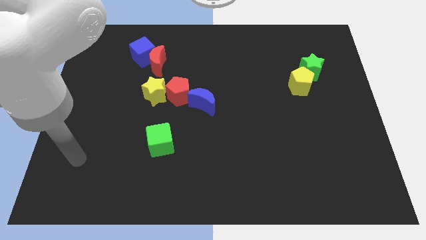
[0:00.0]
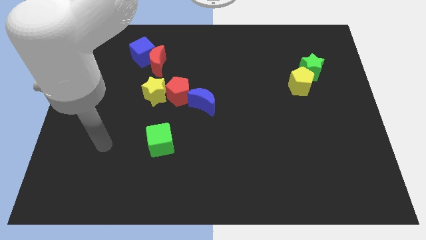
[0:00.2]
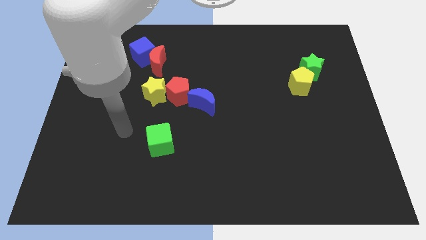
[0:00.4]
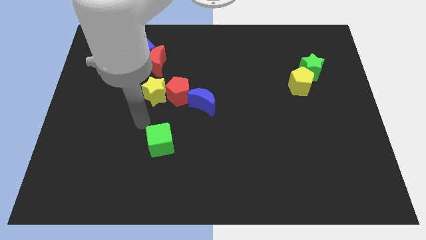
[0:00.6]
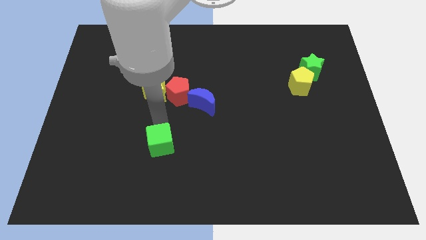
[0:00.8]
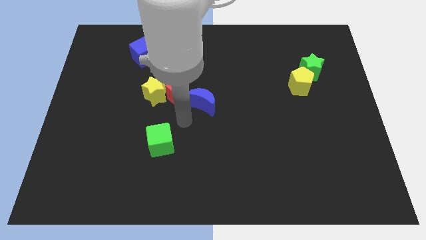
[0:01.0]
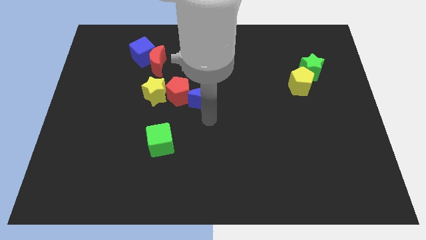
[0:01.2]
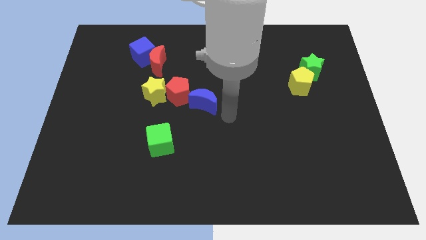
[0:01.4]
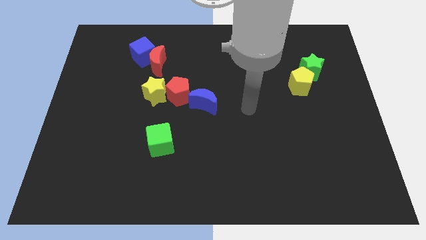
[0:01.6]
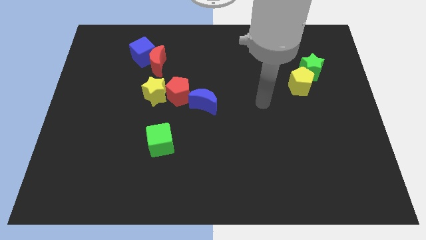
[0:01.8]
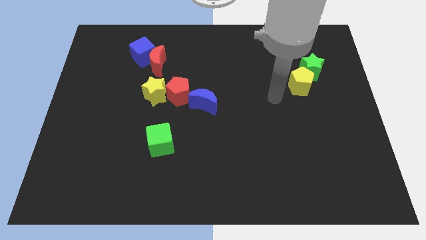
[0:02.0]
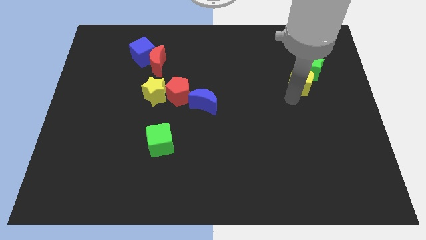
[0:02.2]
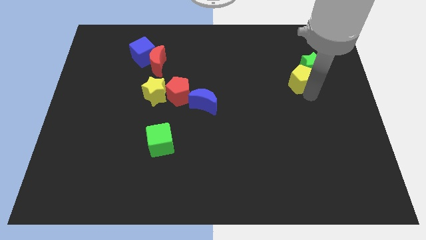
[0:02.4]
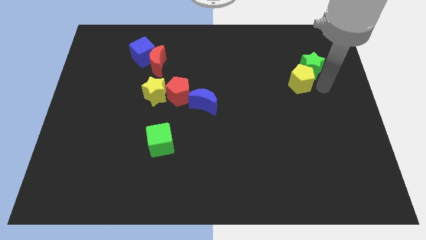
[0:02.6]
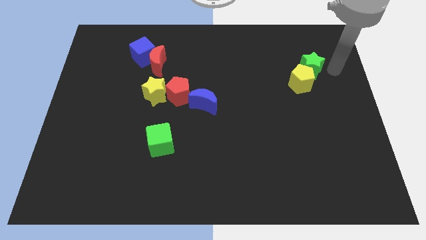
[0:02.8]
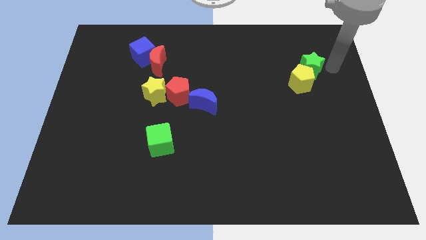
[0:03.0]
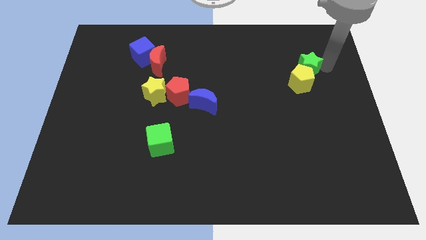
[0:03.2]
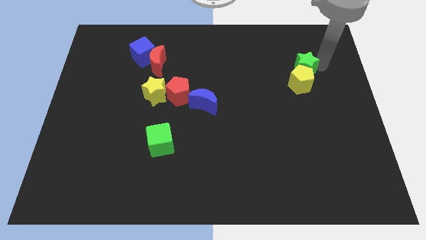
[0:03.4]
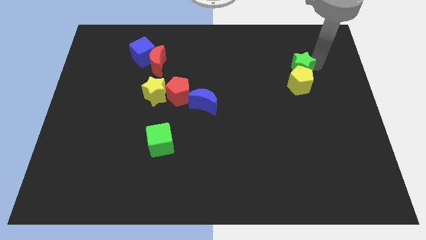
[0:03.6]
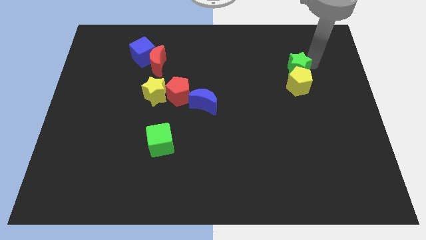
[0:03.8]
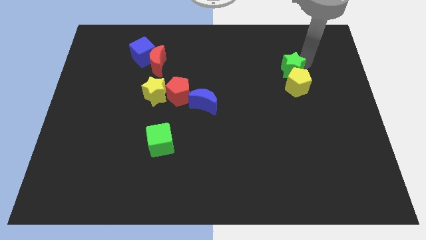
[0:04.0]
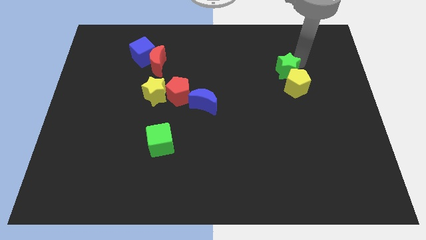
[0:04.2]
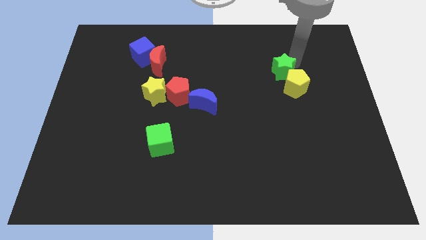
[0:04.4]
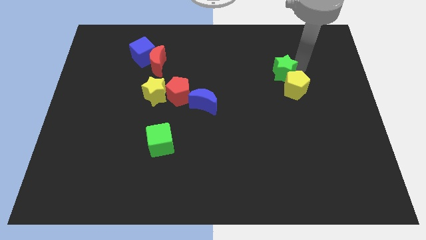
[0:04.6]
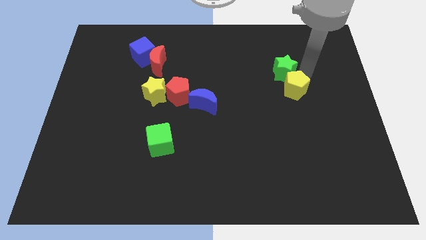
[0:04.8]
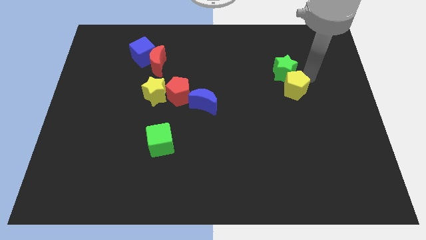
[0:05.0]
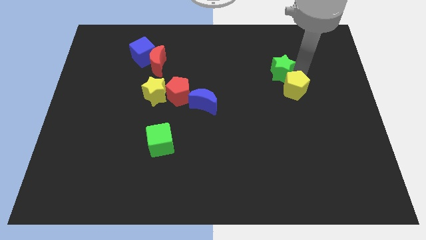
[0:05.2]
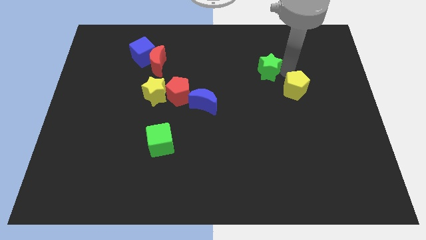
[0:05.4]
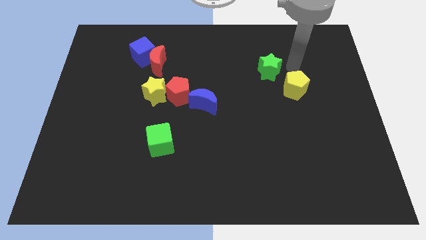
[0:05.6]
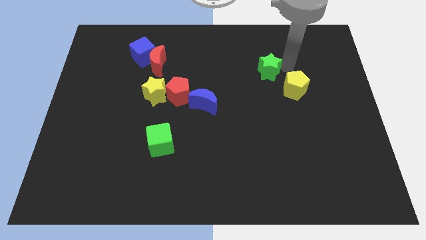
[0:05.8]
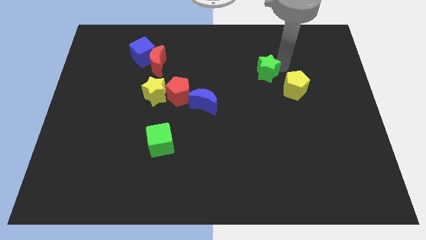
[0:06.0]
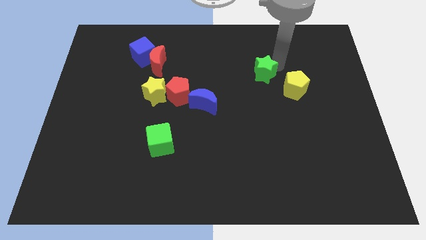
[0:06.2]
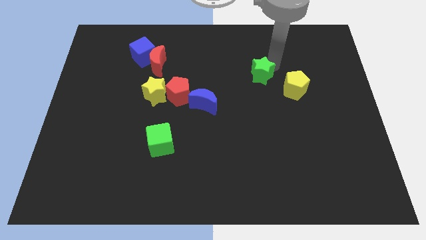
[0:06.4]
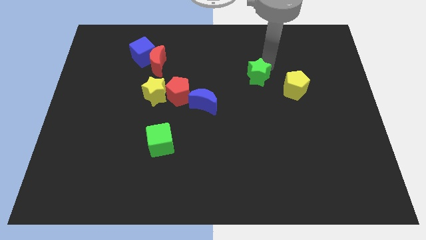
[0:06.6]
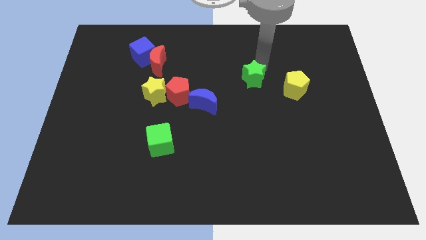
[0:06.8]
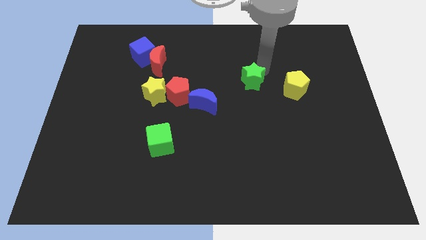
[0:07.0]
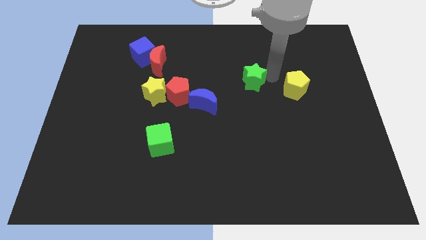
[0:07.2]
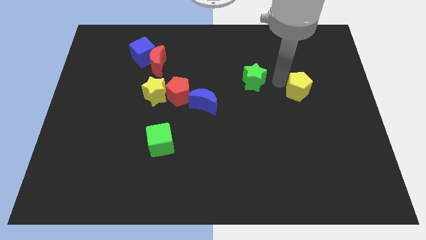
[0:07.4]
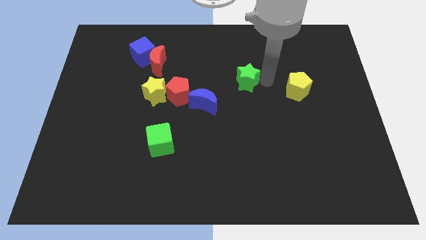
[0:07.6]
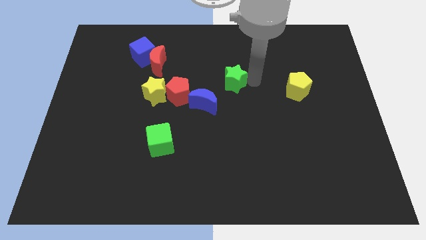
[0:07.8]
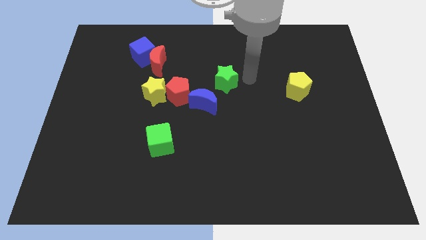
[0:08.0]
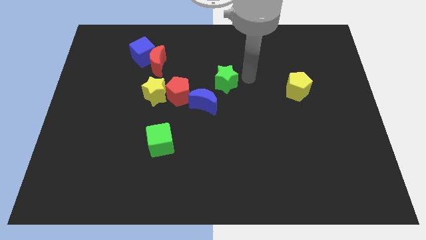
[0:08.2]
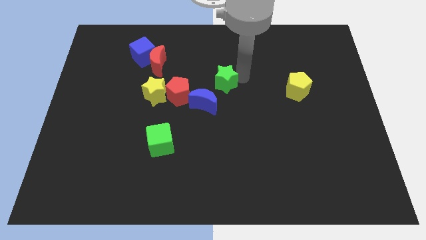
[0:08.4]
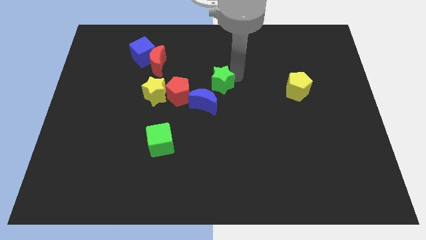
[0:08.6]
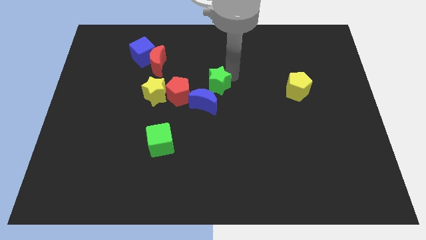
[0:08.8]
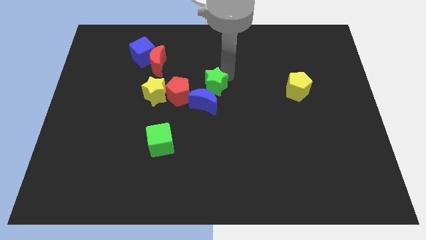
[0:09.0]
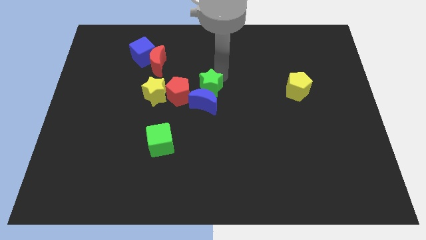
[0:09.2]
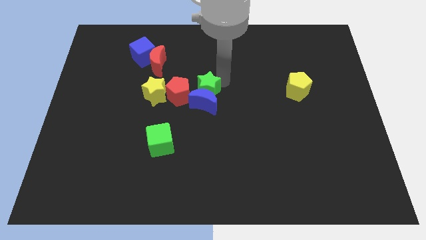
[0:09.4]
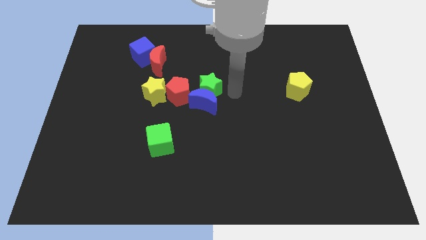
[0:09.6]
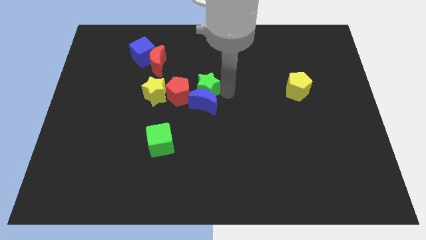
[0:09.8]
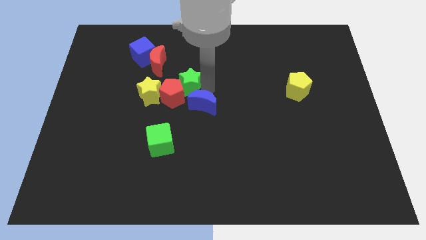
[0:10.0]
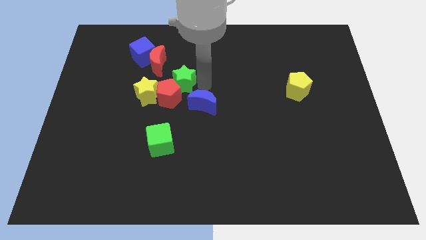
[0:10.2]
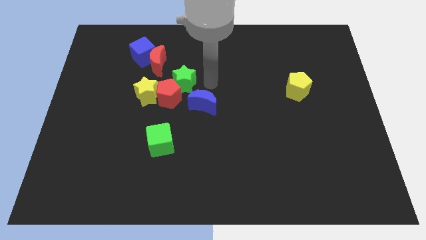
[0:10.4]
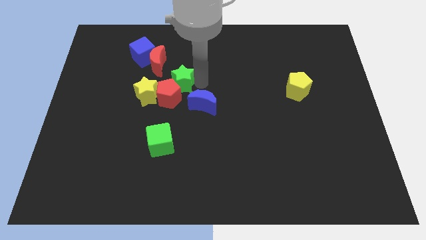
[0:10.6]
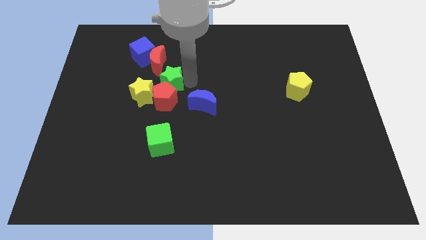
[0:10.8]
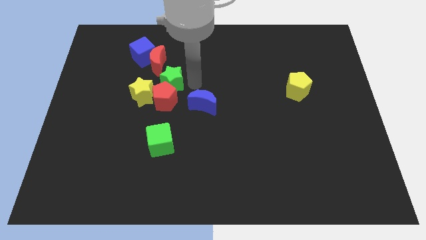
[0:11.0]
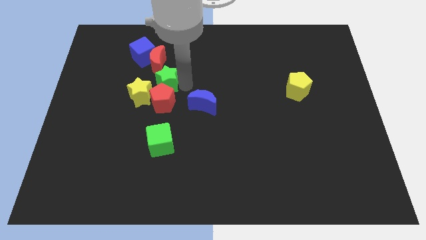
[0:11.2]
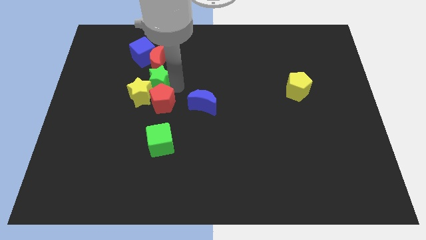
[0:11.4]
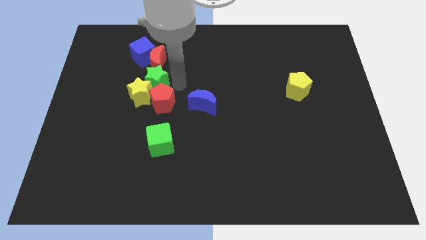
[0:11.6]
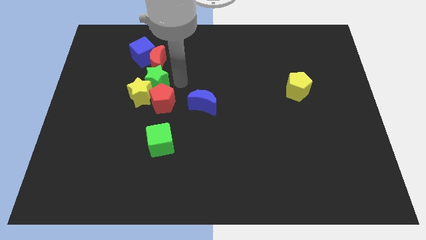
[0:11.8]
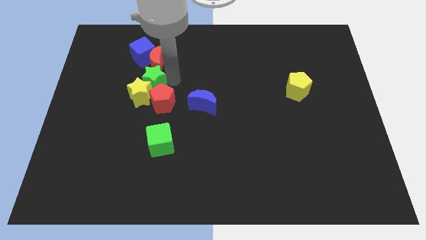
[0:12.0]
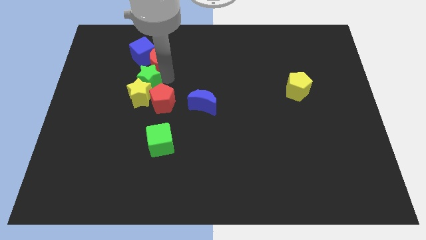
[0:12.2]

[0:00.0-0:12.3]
slide the green star to the top left of the yellow star

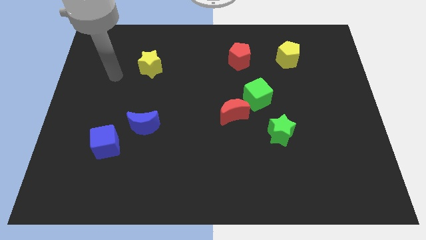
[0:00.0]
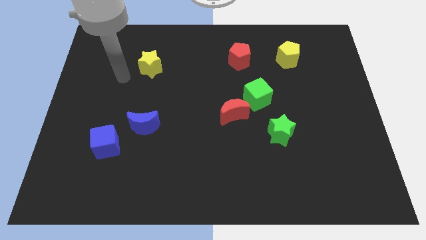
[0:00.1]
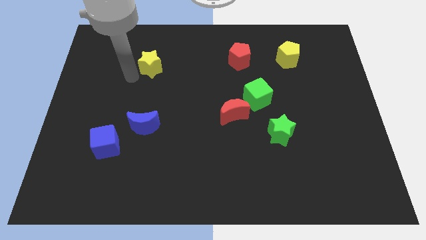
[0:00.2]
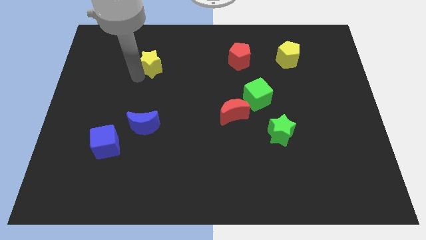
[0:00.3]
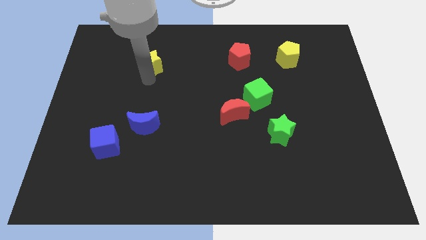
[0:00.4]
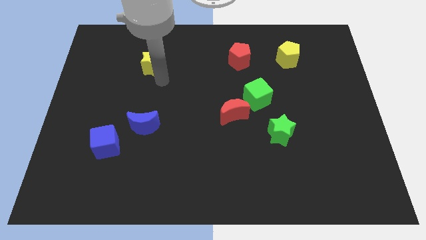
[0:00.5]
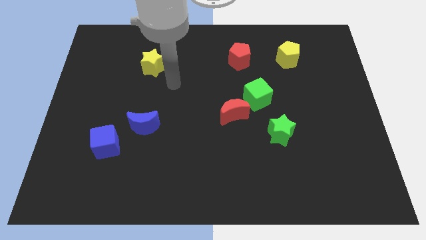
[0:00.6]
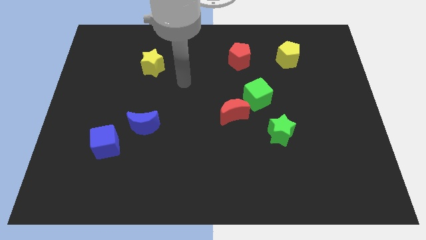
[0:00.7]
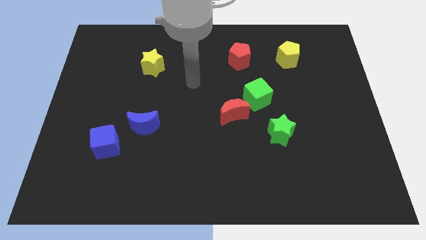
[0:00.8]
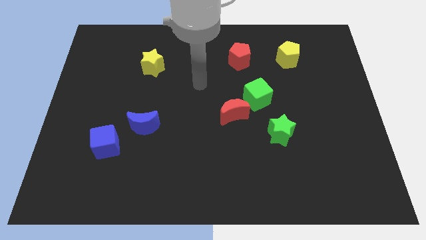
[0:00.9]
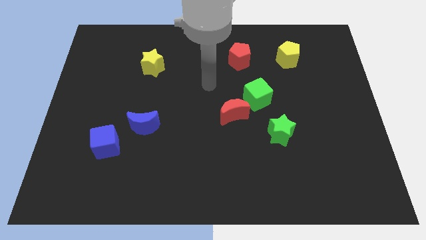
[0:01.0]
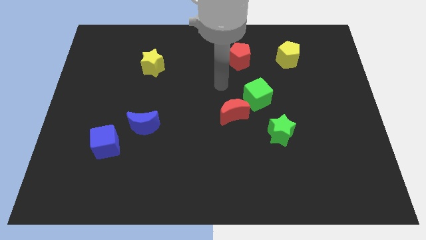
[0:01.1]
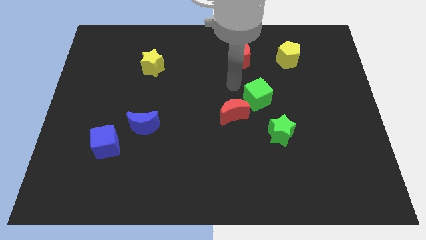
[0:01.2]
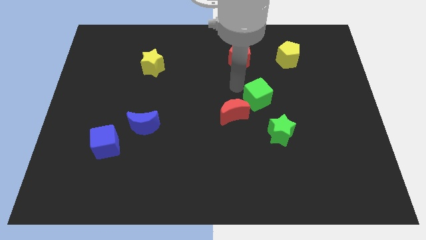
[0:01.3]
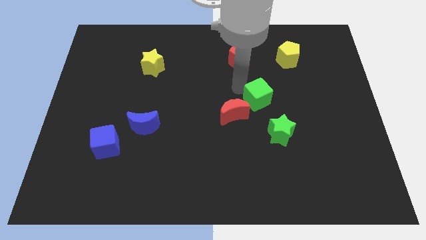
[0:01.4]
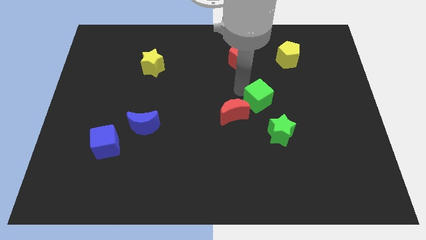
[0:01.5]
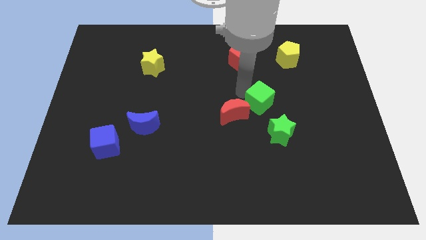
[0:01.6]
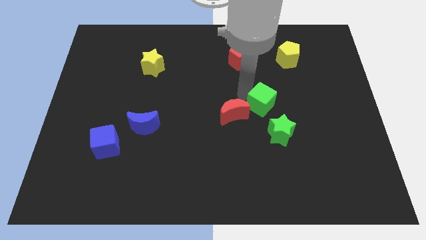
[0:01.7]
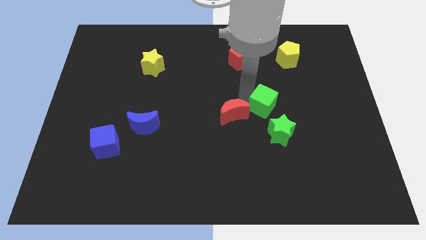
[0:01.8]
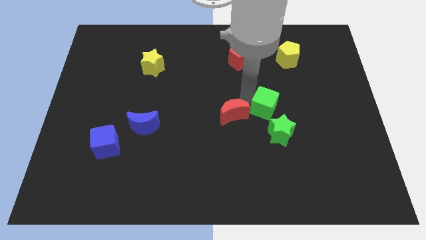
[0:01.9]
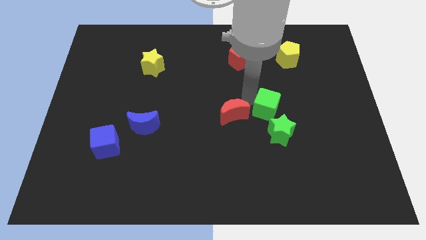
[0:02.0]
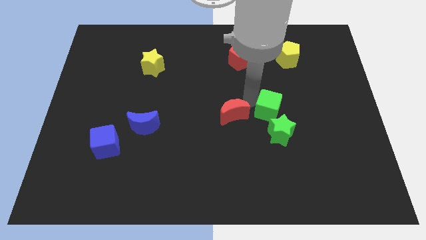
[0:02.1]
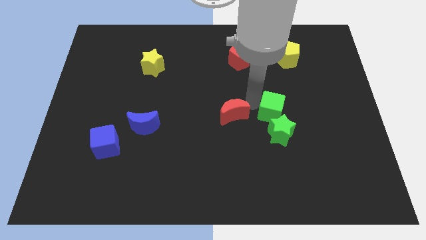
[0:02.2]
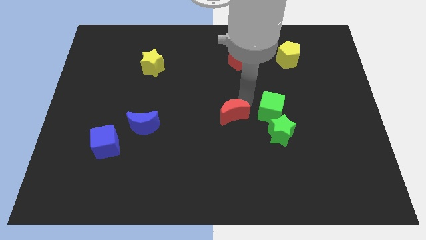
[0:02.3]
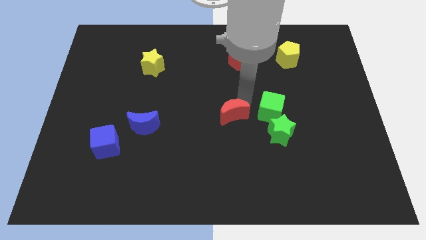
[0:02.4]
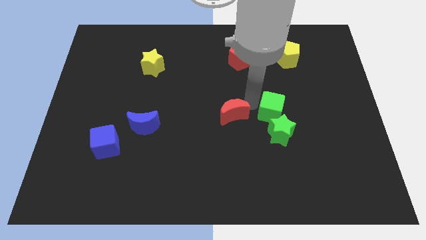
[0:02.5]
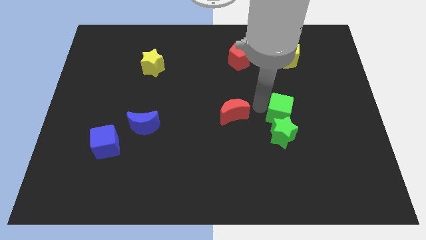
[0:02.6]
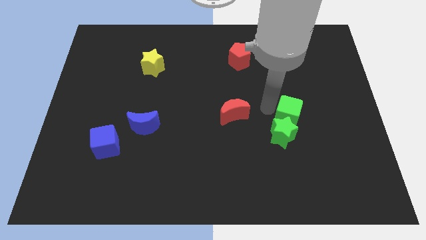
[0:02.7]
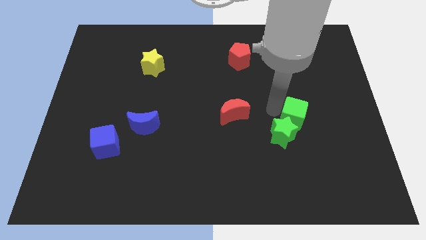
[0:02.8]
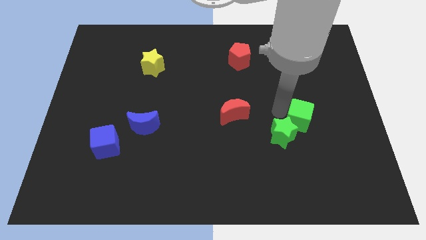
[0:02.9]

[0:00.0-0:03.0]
put the green cube to the right side of the green star
